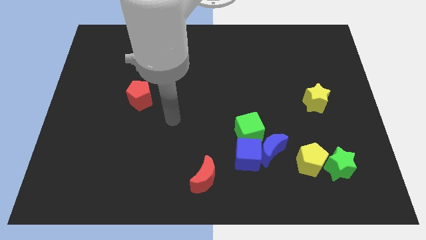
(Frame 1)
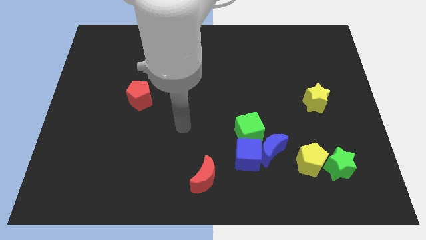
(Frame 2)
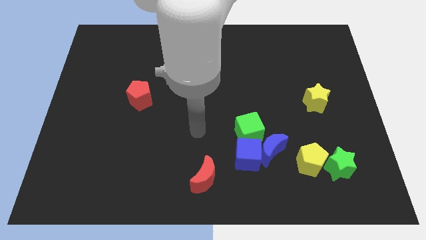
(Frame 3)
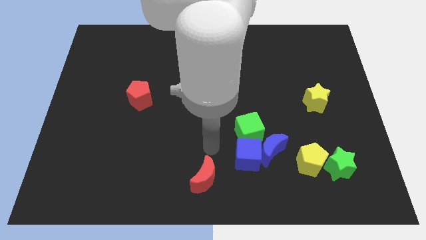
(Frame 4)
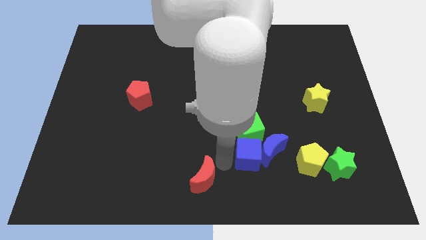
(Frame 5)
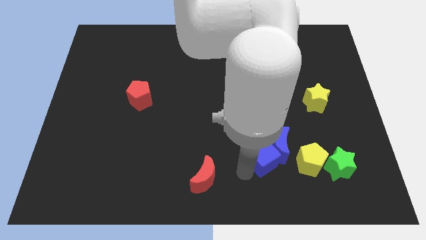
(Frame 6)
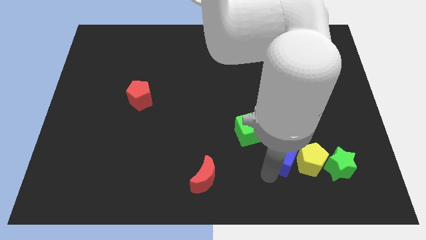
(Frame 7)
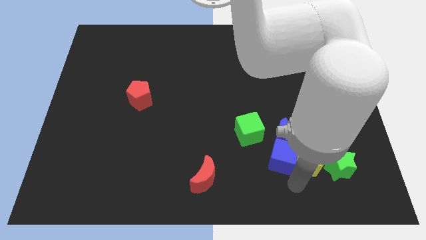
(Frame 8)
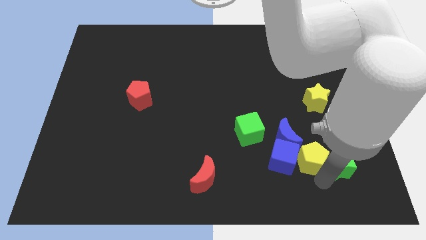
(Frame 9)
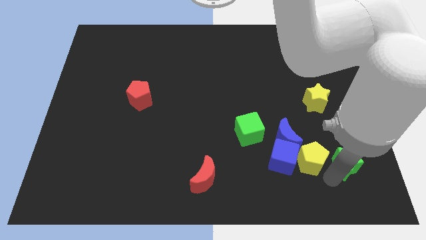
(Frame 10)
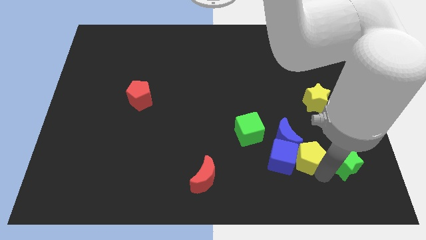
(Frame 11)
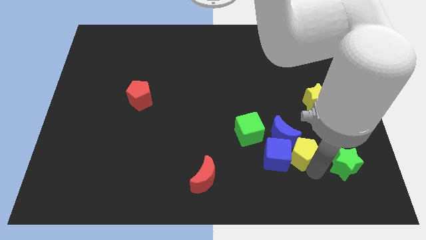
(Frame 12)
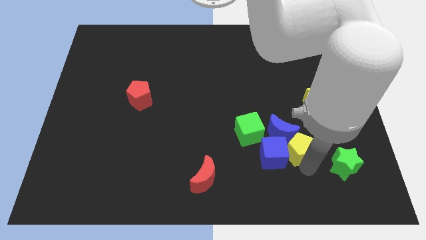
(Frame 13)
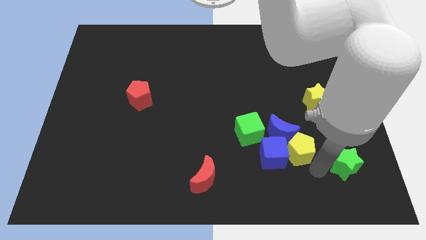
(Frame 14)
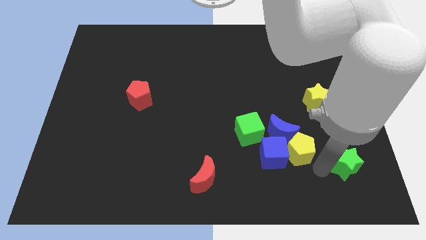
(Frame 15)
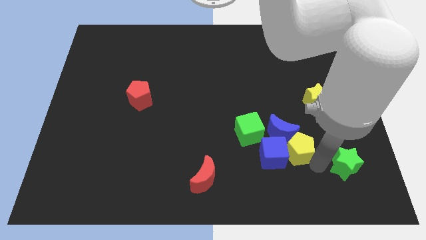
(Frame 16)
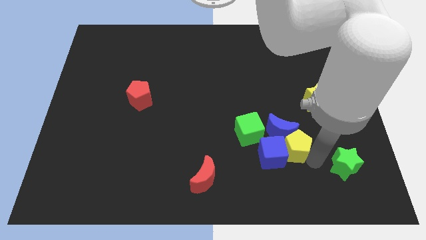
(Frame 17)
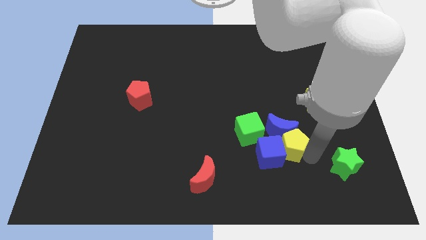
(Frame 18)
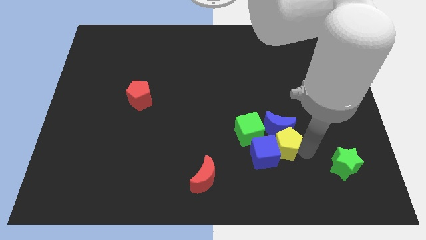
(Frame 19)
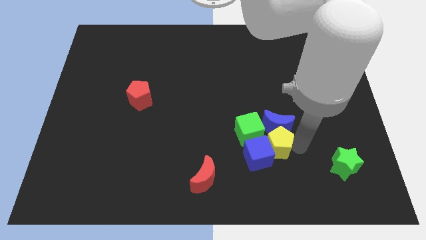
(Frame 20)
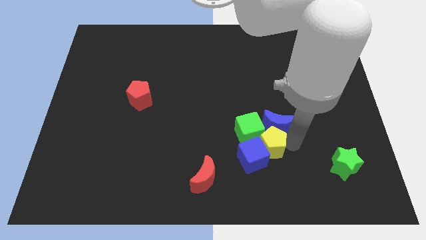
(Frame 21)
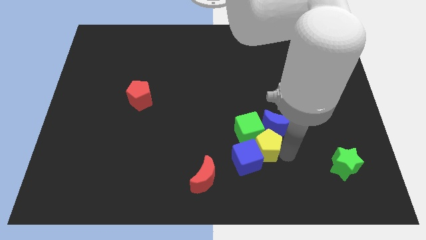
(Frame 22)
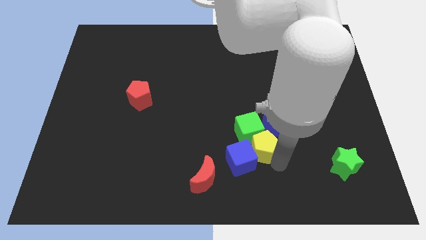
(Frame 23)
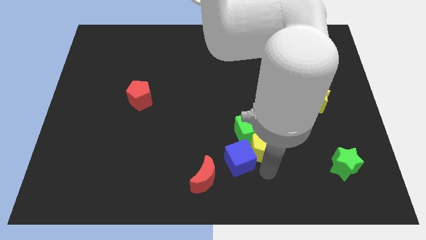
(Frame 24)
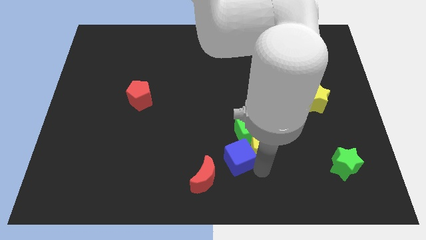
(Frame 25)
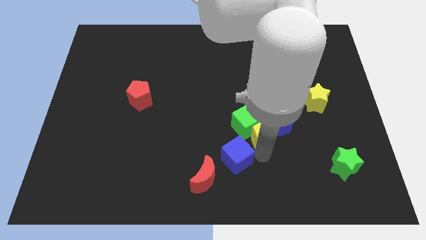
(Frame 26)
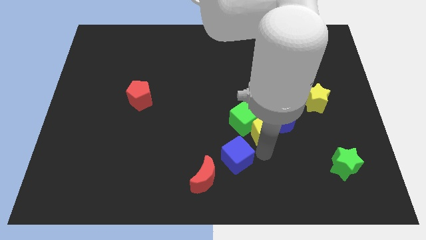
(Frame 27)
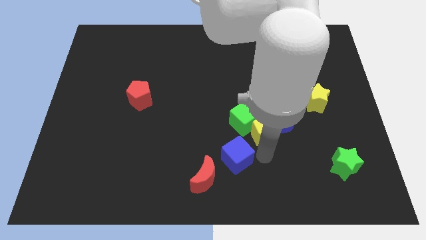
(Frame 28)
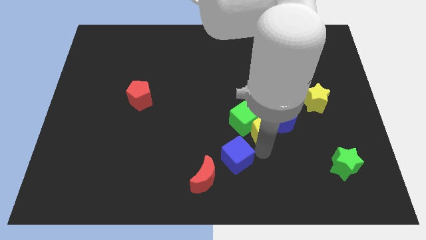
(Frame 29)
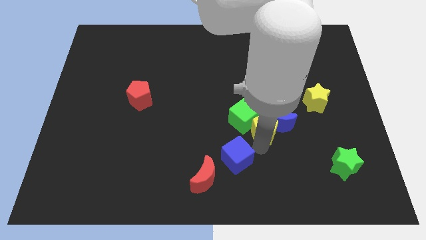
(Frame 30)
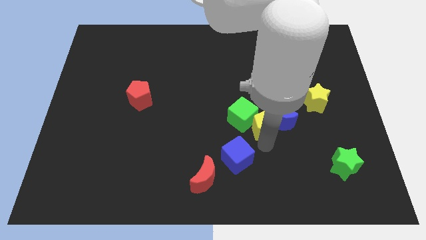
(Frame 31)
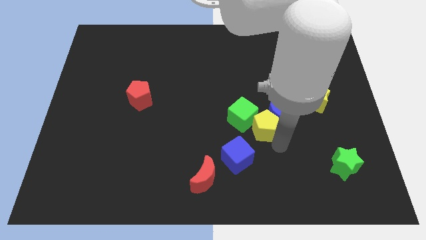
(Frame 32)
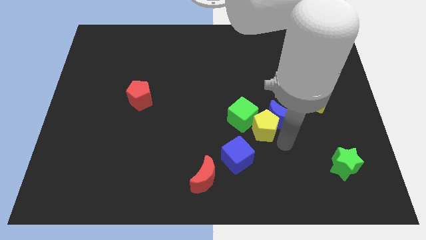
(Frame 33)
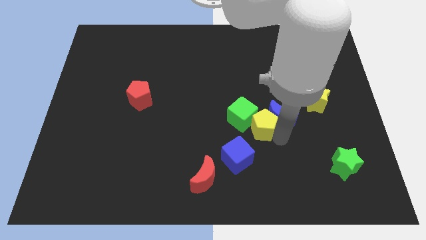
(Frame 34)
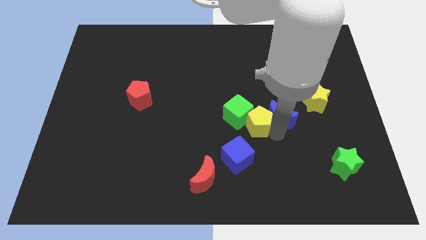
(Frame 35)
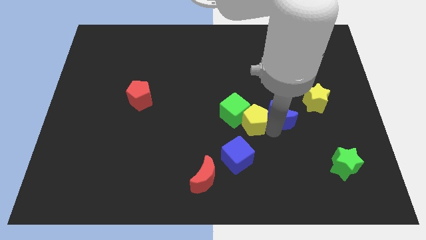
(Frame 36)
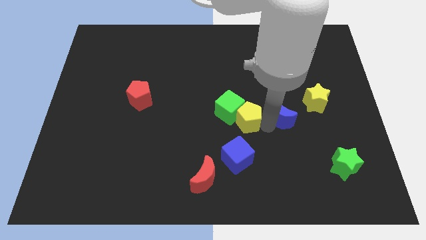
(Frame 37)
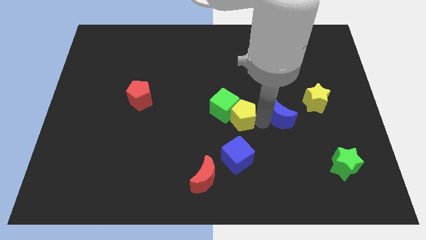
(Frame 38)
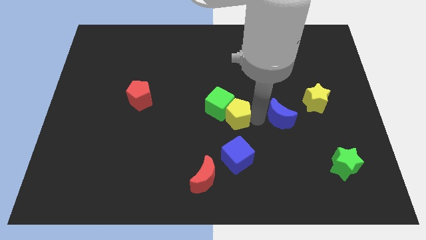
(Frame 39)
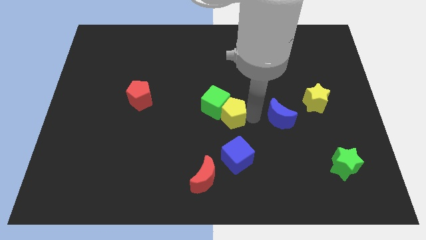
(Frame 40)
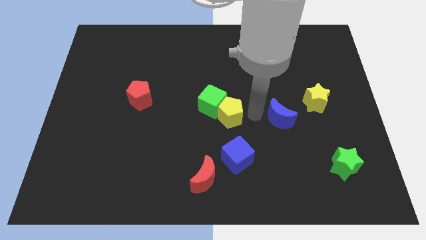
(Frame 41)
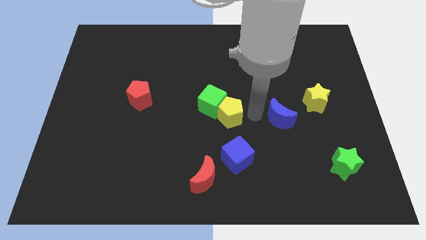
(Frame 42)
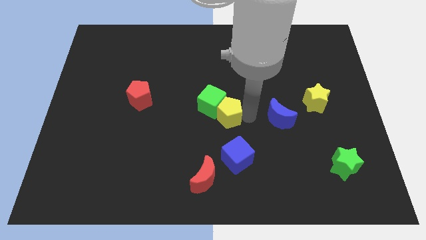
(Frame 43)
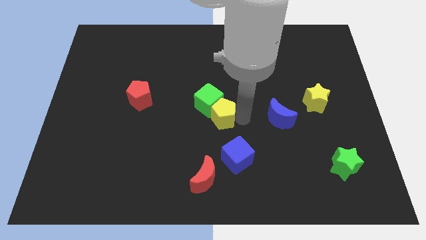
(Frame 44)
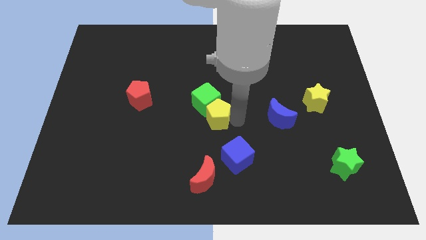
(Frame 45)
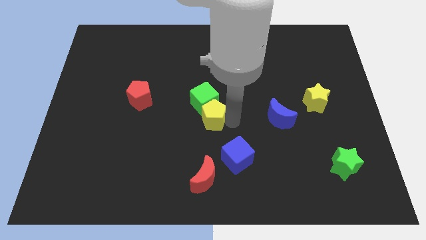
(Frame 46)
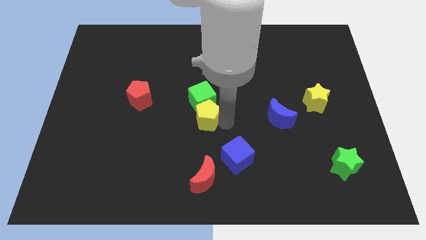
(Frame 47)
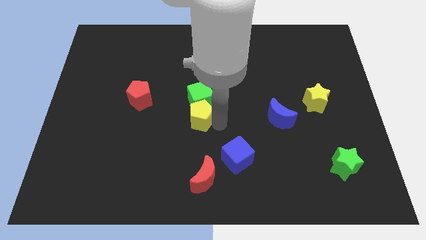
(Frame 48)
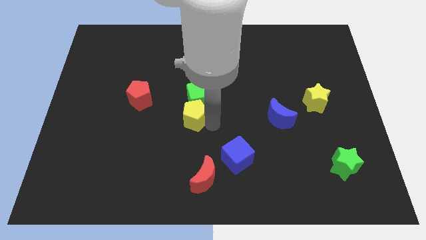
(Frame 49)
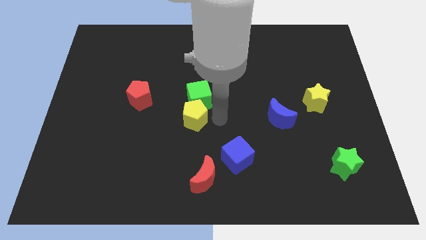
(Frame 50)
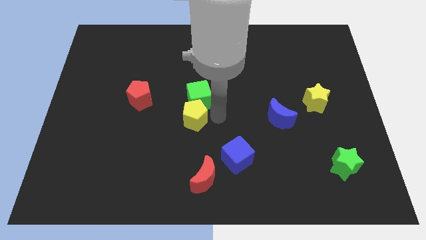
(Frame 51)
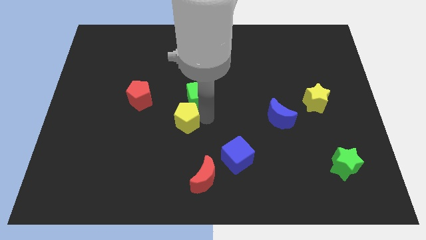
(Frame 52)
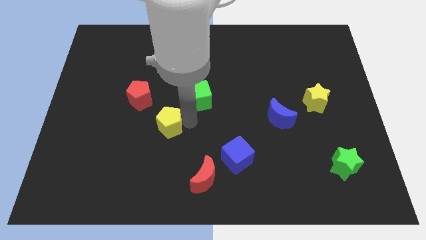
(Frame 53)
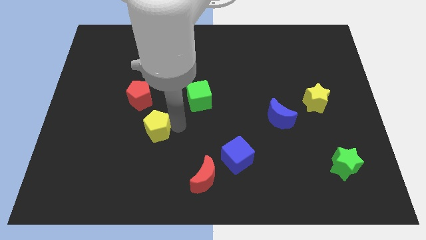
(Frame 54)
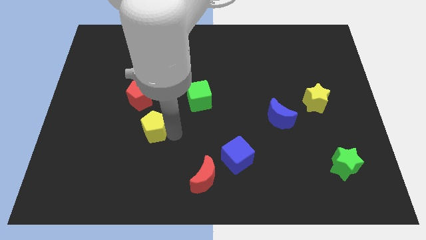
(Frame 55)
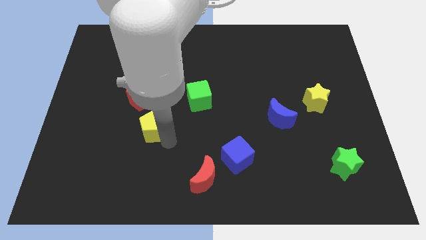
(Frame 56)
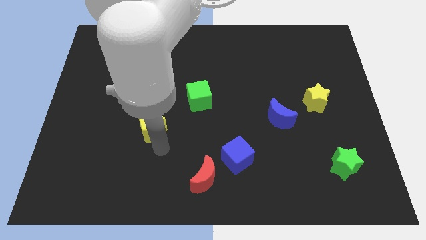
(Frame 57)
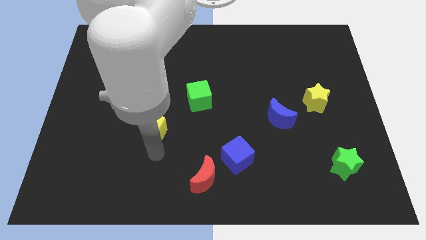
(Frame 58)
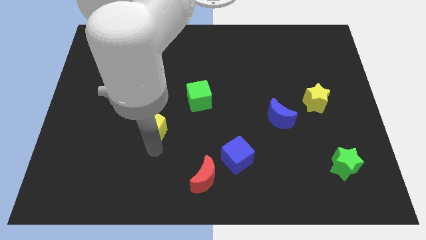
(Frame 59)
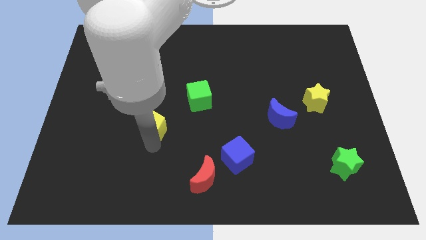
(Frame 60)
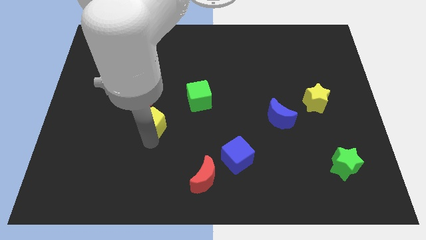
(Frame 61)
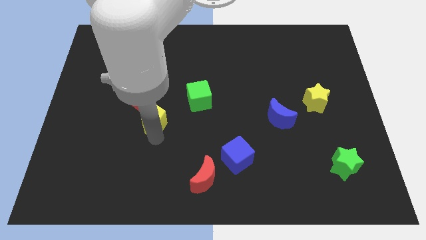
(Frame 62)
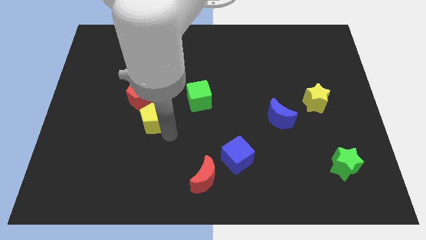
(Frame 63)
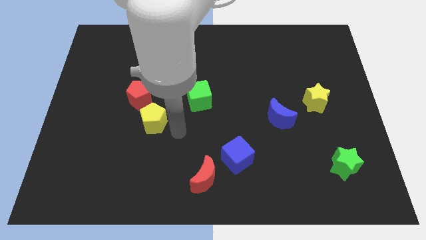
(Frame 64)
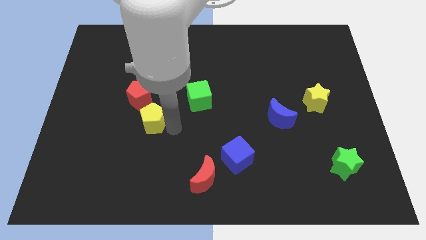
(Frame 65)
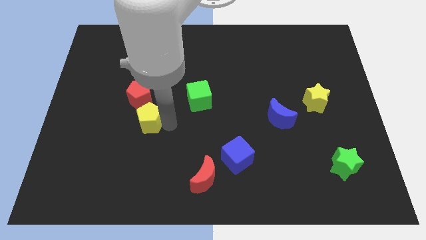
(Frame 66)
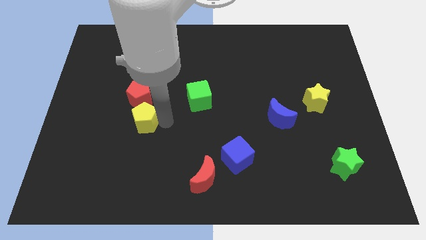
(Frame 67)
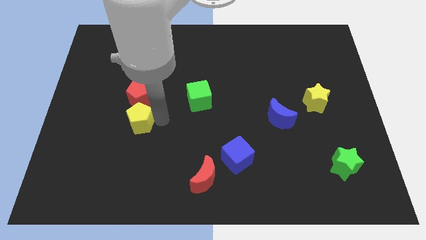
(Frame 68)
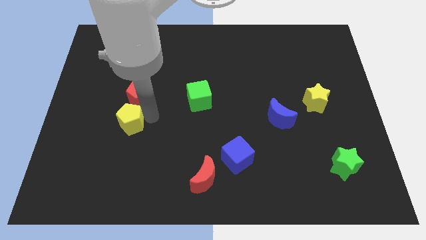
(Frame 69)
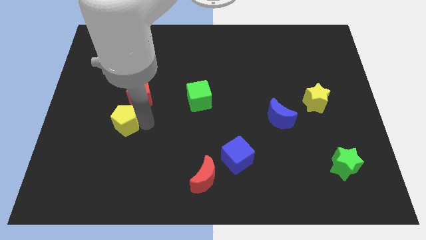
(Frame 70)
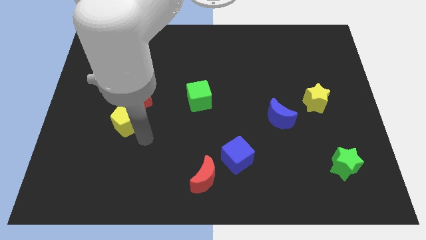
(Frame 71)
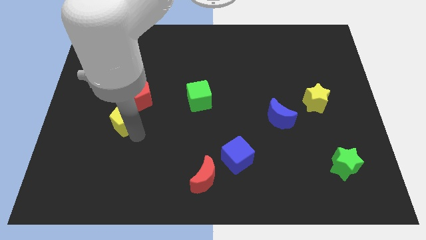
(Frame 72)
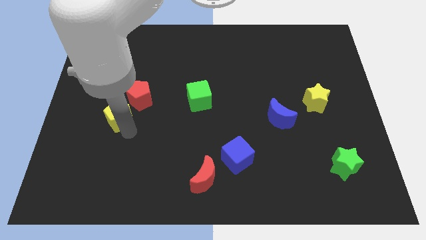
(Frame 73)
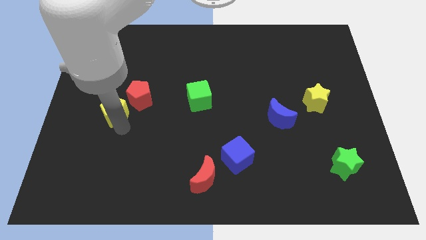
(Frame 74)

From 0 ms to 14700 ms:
put the yellow pentagon left of the red pentagon
